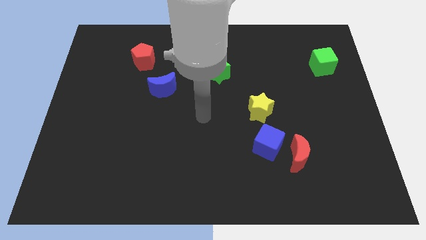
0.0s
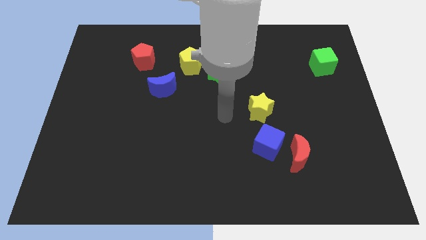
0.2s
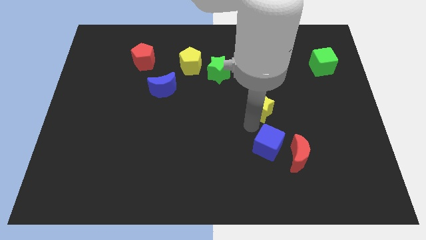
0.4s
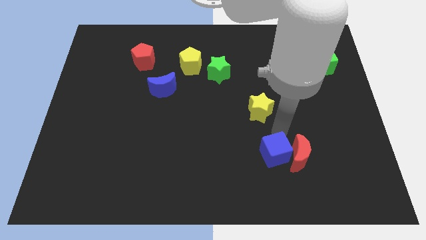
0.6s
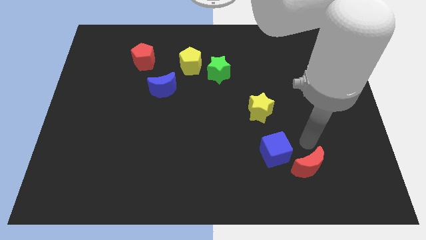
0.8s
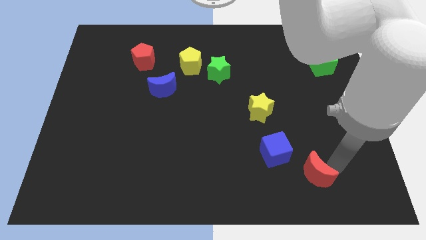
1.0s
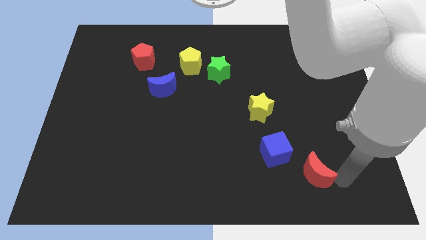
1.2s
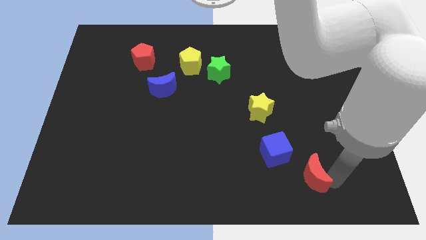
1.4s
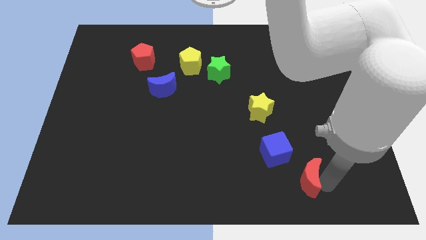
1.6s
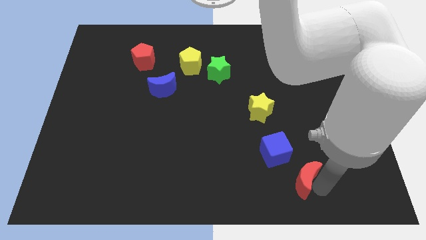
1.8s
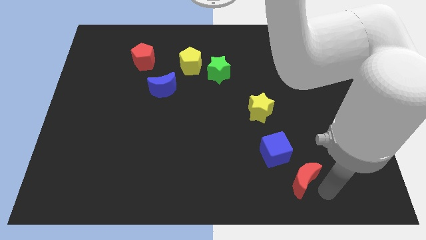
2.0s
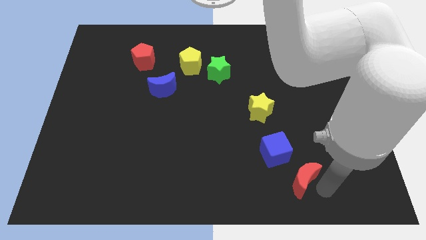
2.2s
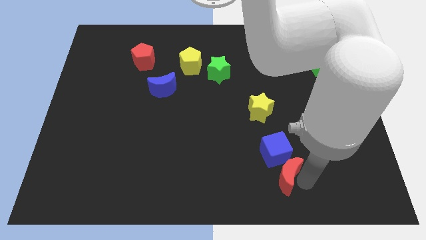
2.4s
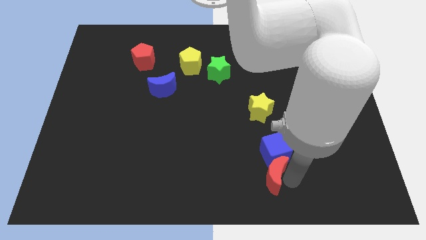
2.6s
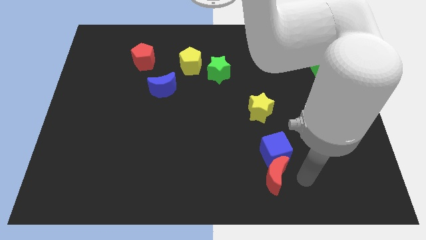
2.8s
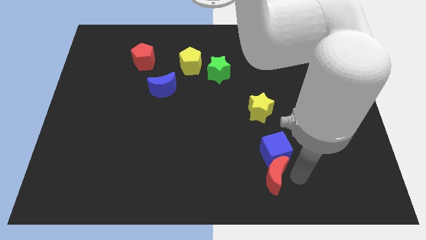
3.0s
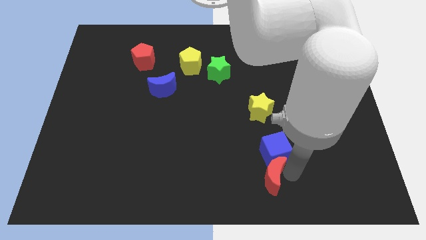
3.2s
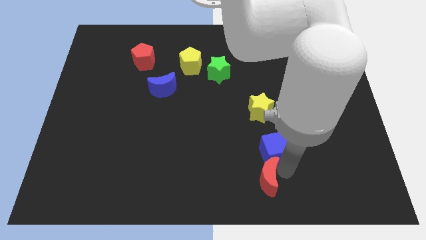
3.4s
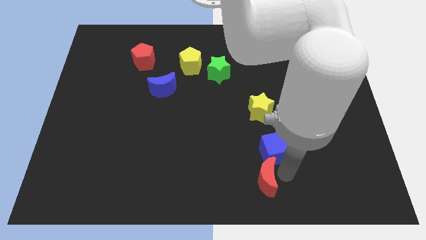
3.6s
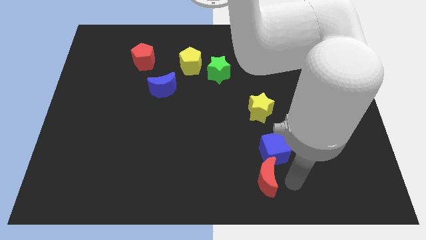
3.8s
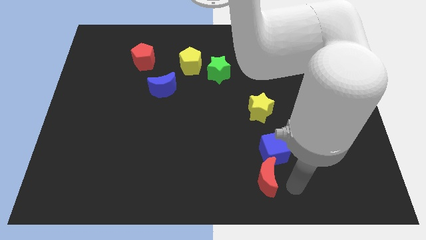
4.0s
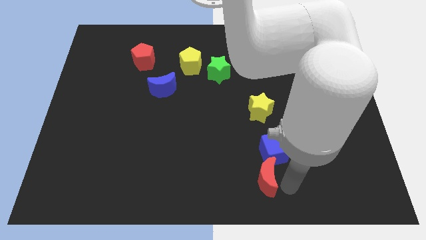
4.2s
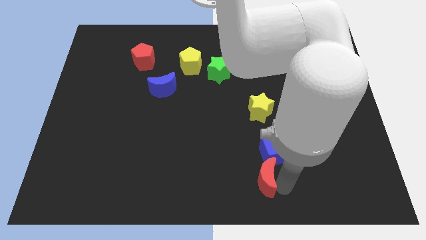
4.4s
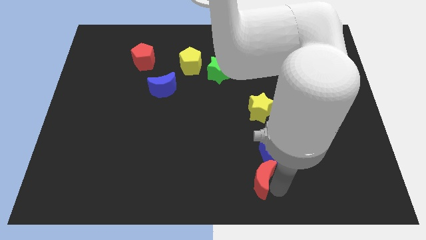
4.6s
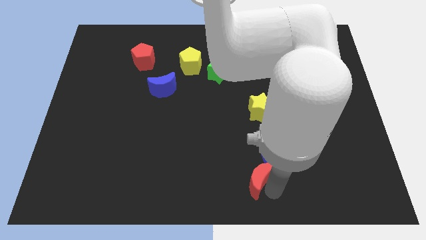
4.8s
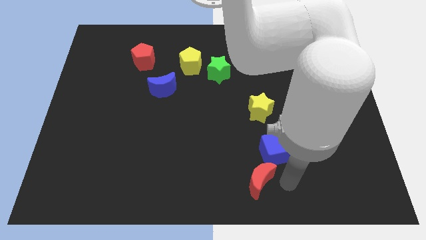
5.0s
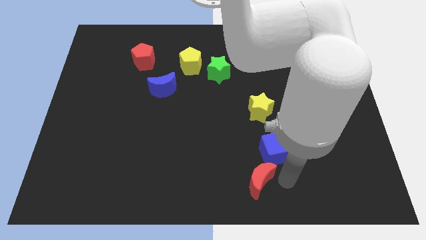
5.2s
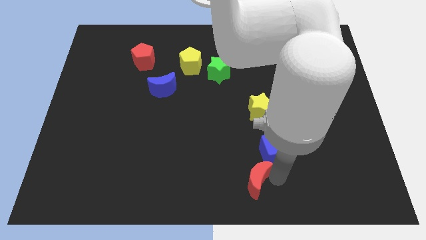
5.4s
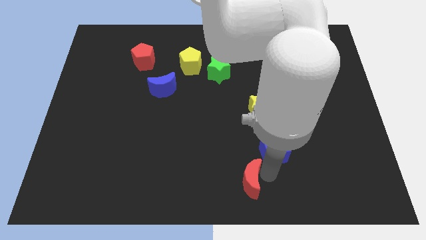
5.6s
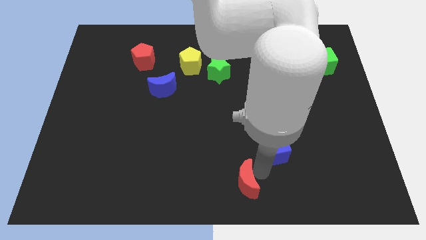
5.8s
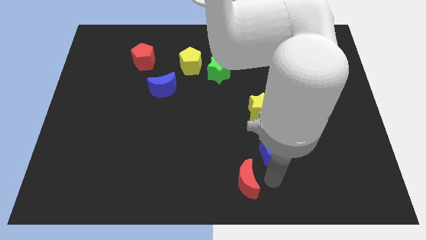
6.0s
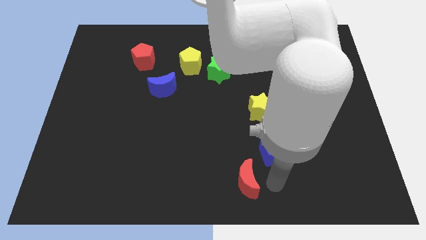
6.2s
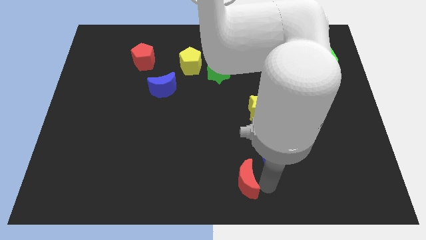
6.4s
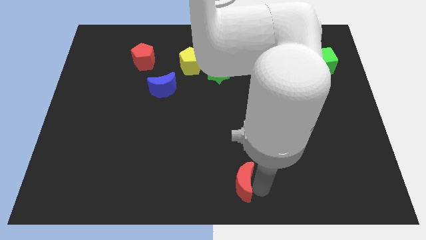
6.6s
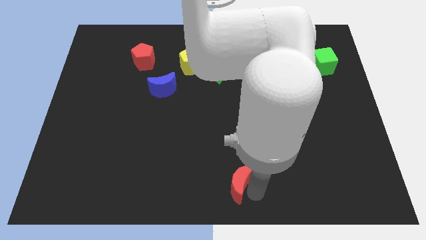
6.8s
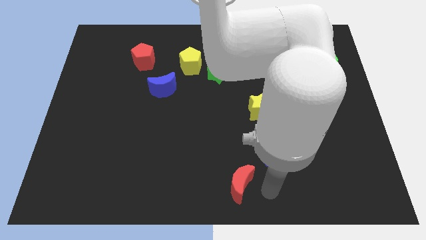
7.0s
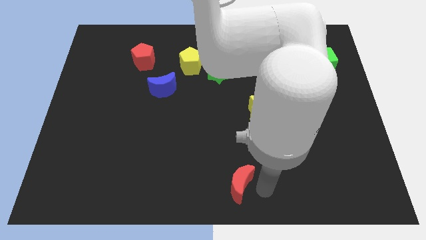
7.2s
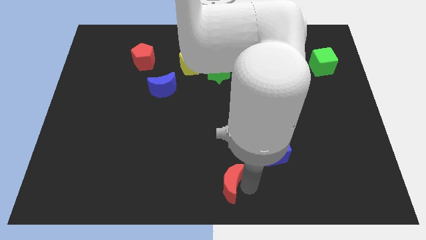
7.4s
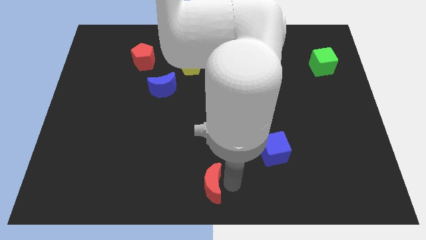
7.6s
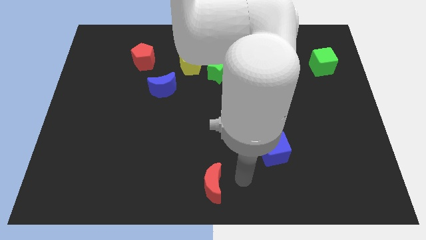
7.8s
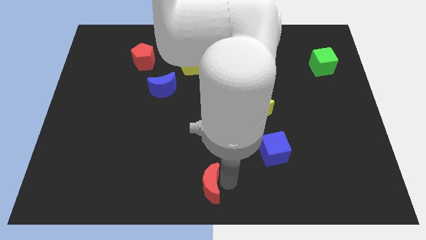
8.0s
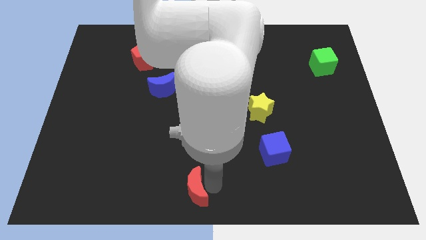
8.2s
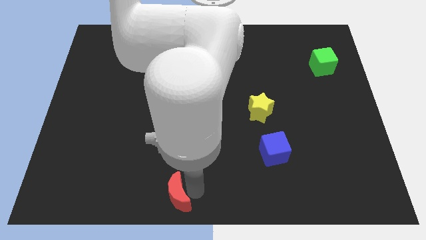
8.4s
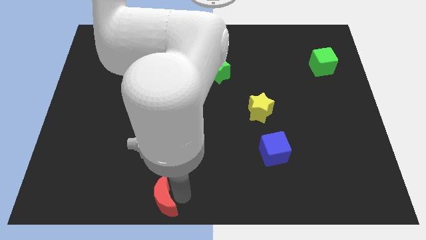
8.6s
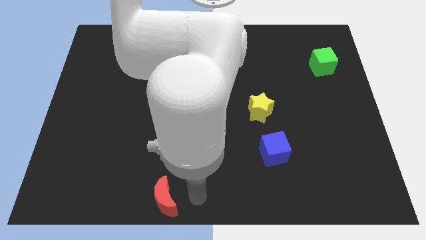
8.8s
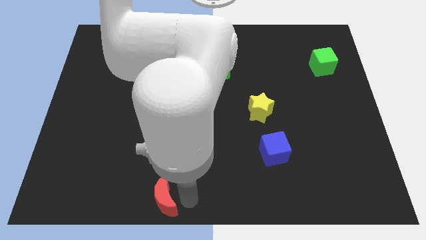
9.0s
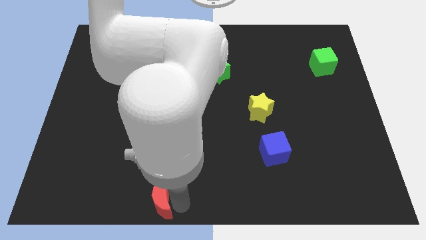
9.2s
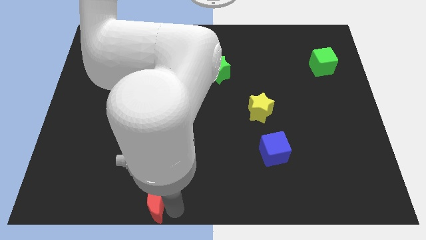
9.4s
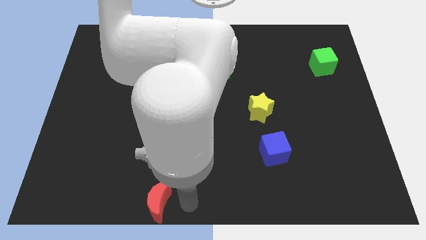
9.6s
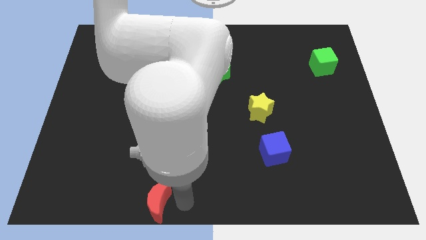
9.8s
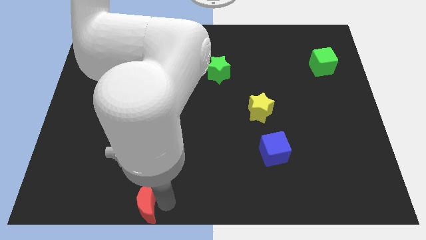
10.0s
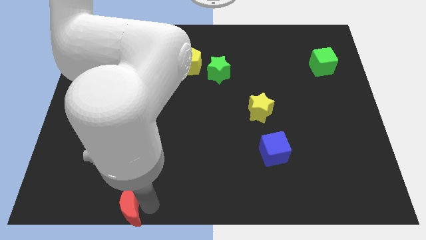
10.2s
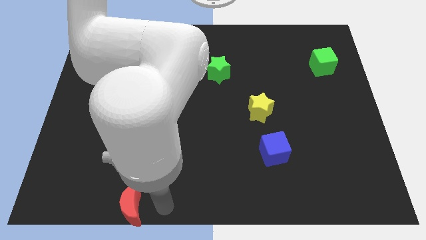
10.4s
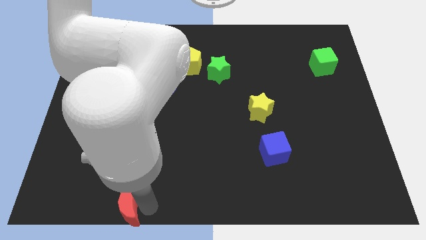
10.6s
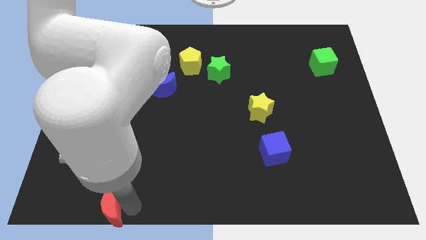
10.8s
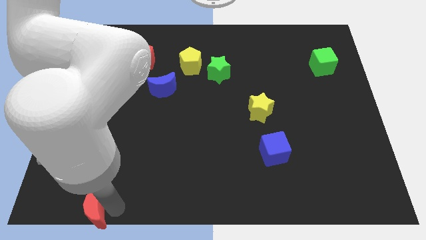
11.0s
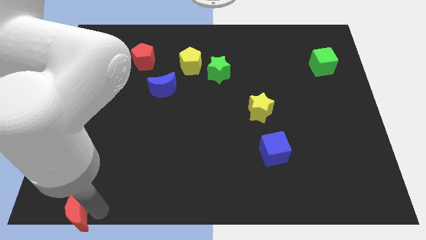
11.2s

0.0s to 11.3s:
slide the red moon to the bottom left corner

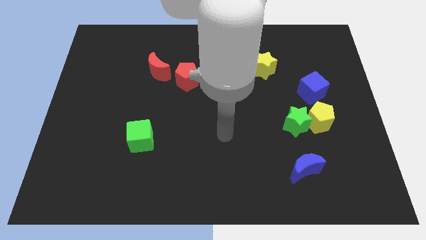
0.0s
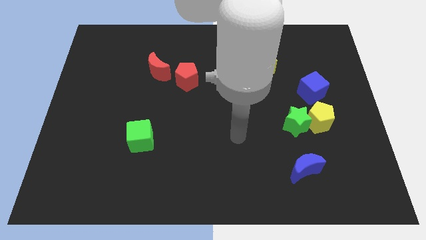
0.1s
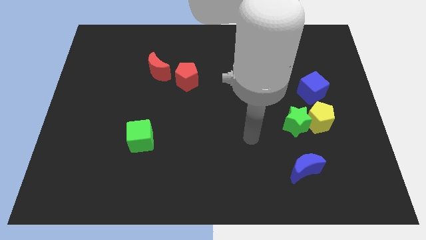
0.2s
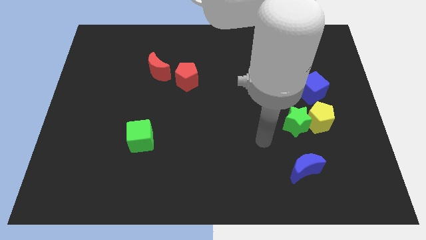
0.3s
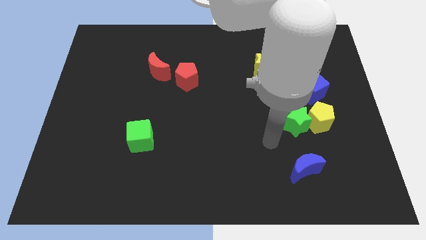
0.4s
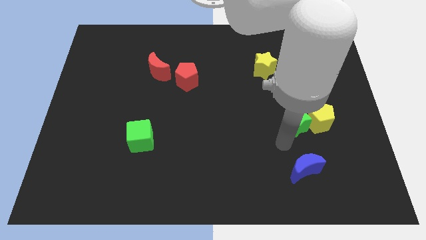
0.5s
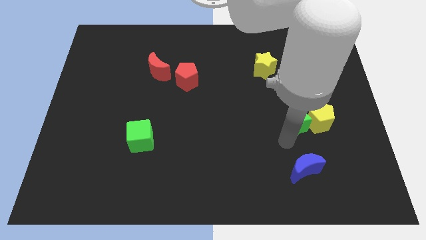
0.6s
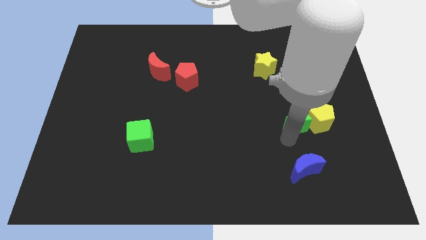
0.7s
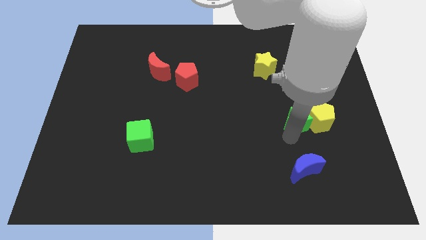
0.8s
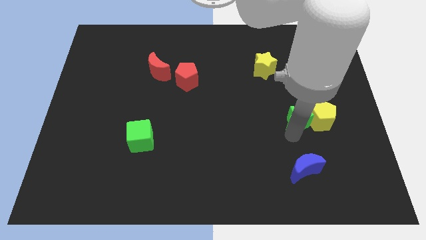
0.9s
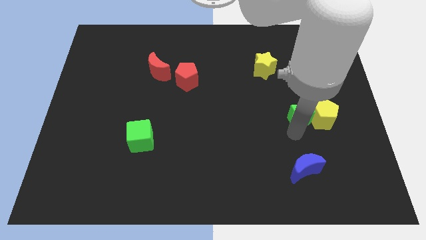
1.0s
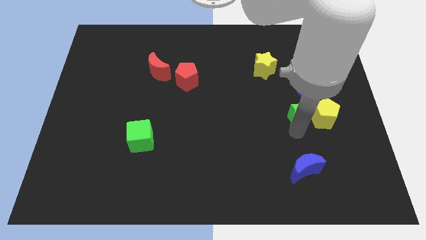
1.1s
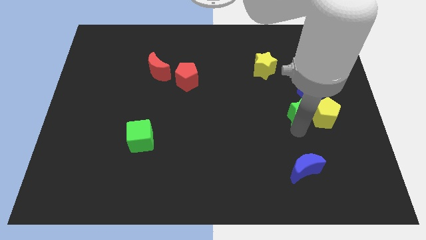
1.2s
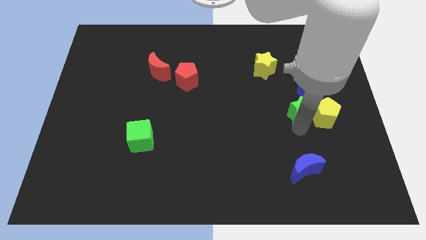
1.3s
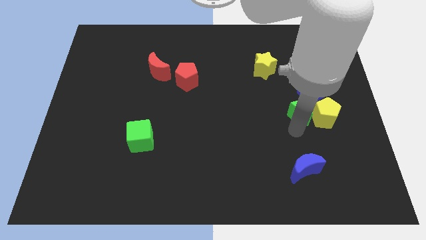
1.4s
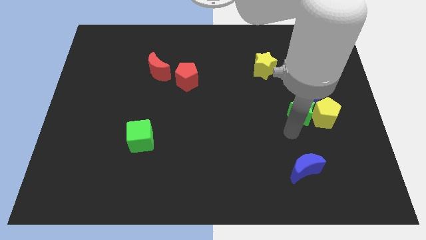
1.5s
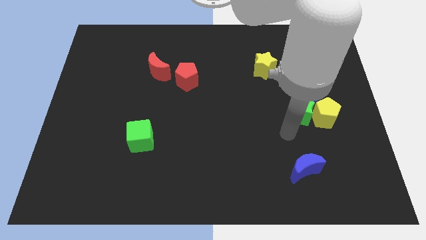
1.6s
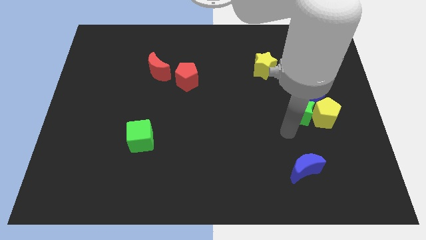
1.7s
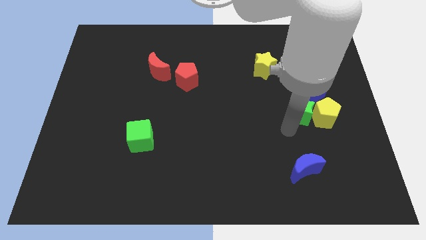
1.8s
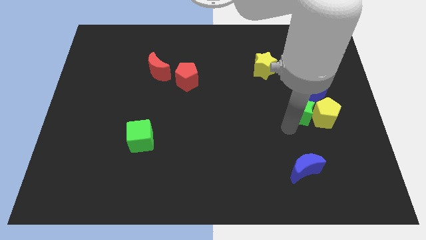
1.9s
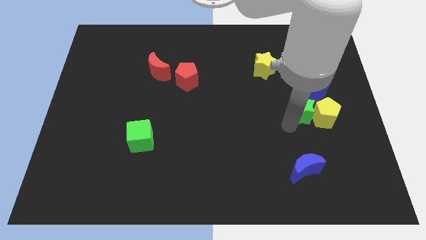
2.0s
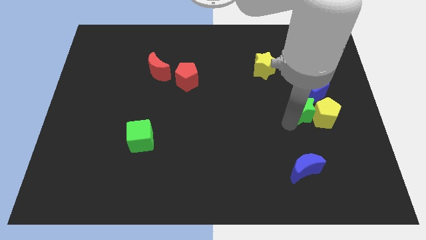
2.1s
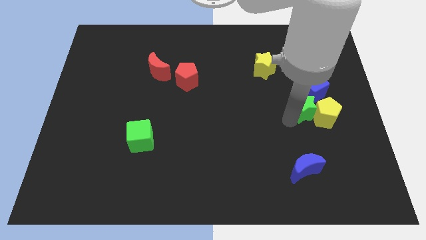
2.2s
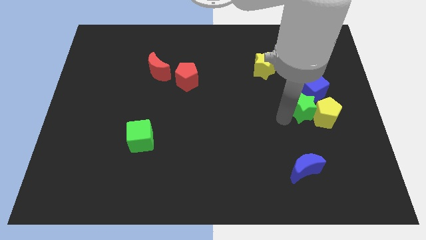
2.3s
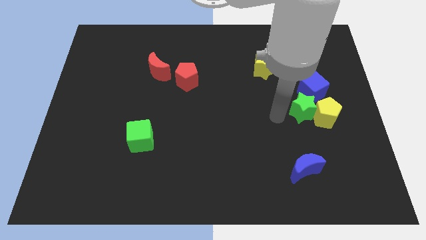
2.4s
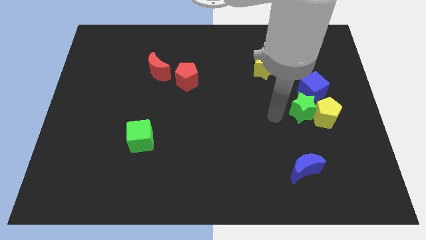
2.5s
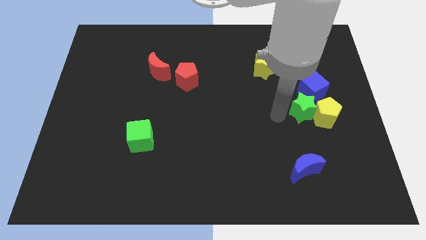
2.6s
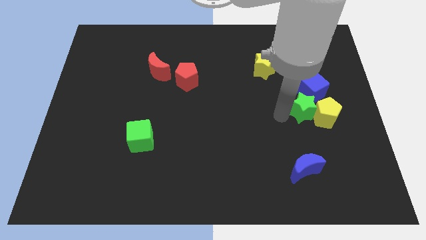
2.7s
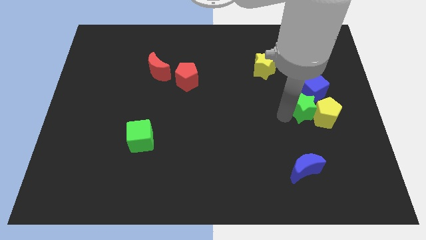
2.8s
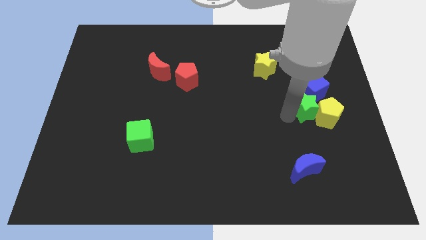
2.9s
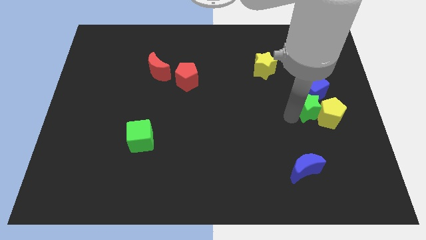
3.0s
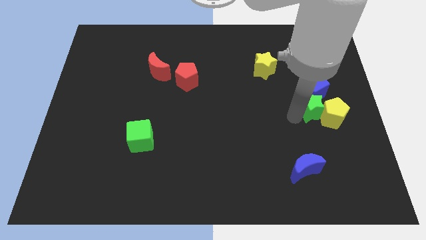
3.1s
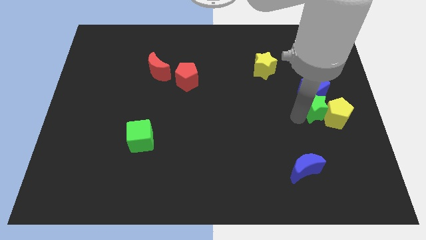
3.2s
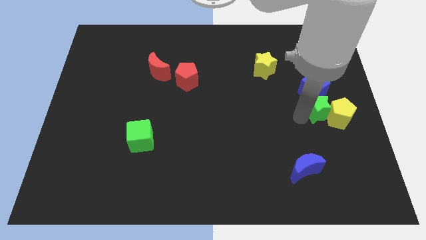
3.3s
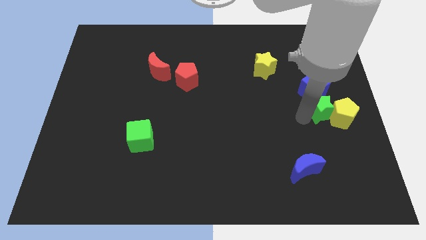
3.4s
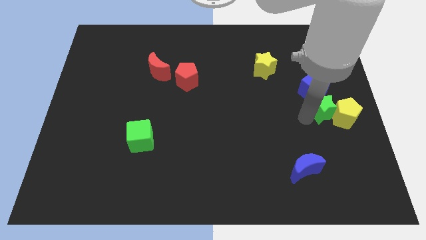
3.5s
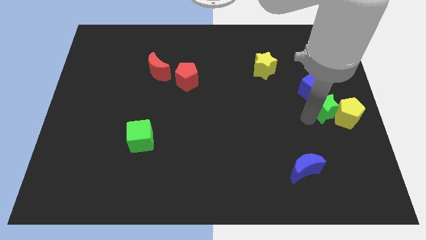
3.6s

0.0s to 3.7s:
slide the green star to the right side of the board
